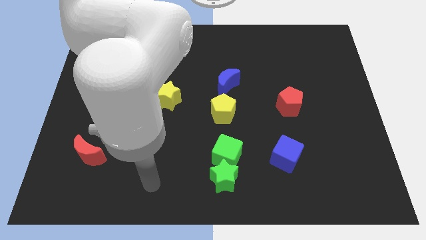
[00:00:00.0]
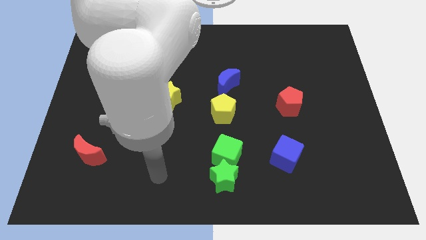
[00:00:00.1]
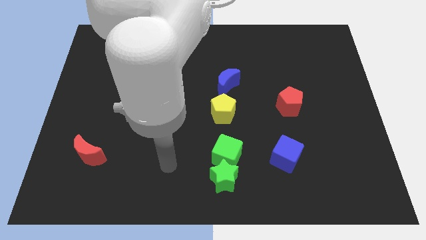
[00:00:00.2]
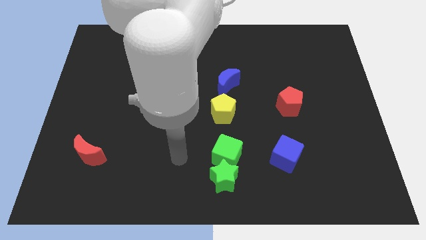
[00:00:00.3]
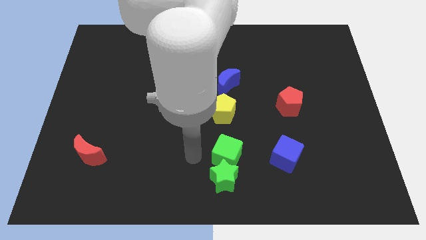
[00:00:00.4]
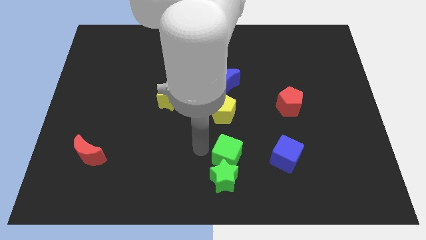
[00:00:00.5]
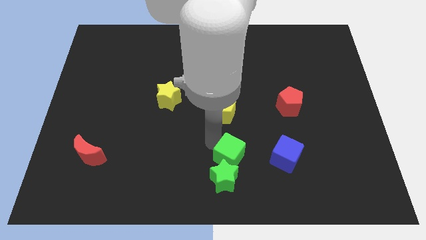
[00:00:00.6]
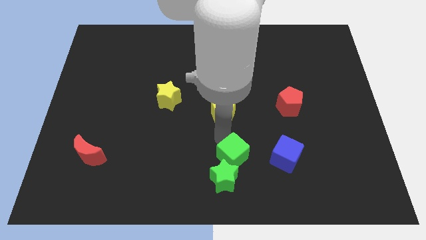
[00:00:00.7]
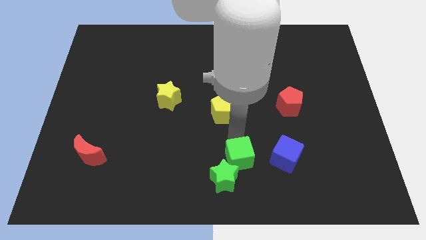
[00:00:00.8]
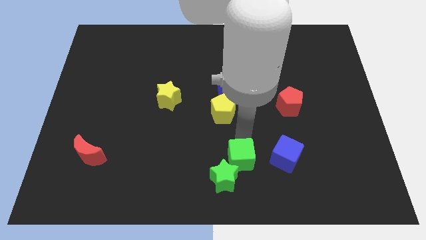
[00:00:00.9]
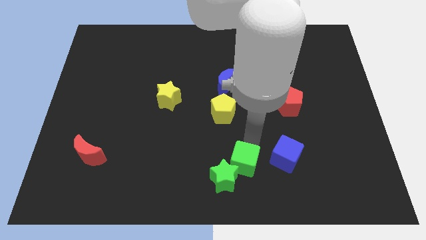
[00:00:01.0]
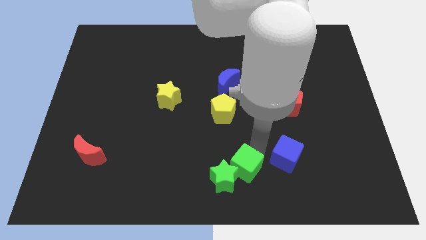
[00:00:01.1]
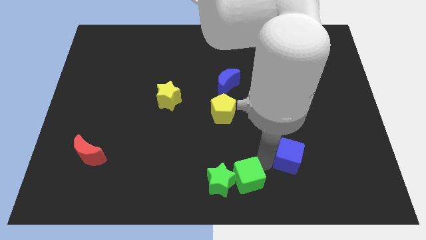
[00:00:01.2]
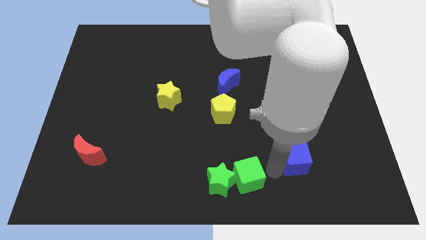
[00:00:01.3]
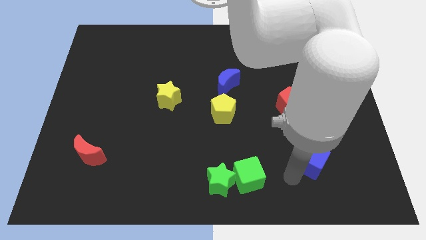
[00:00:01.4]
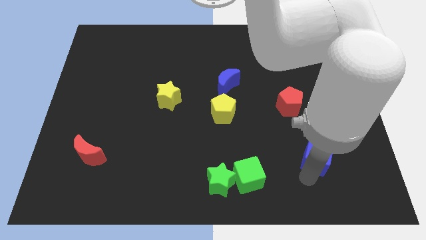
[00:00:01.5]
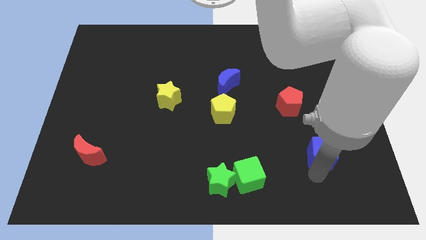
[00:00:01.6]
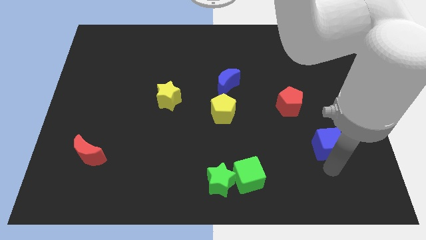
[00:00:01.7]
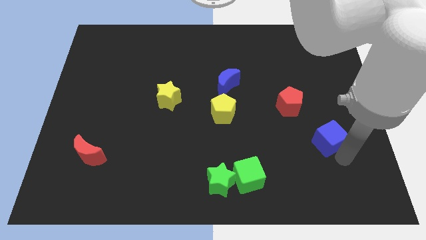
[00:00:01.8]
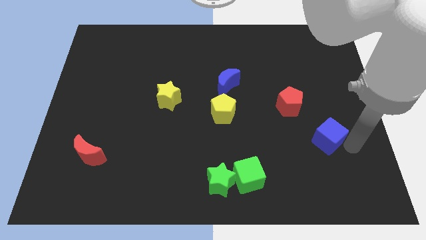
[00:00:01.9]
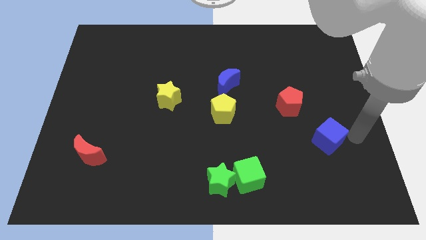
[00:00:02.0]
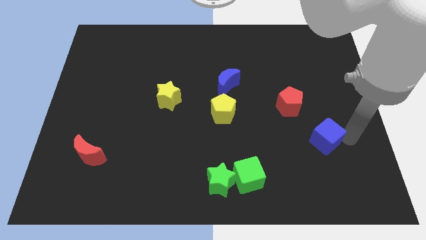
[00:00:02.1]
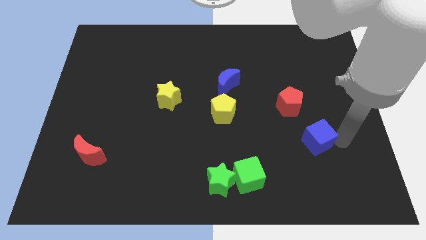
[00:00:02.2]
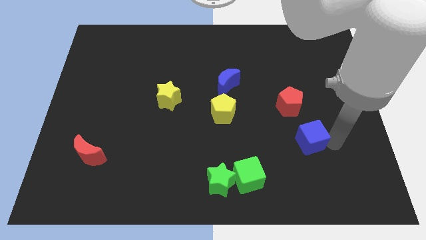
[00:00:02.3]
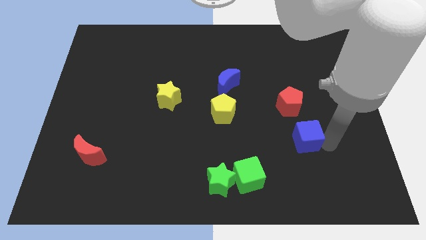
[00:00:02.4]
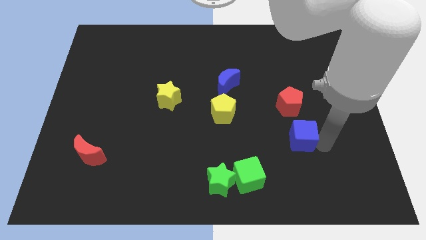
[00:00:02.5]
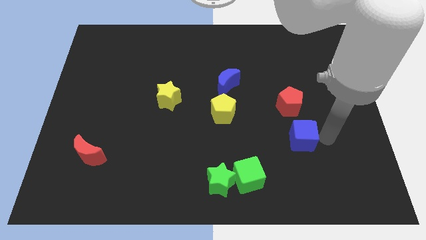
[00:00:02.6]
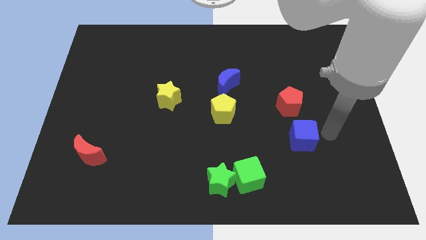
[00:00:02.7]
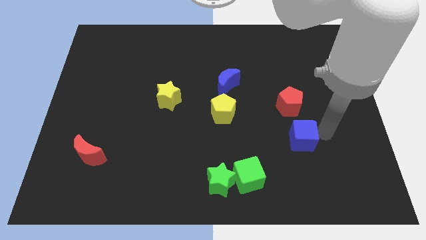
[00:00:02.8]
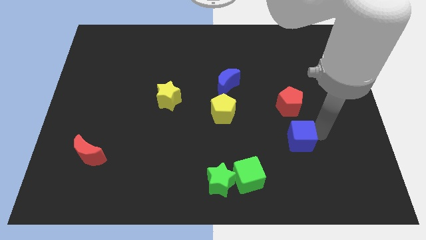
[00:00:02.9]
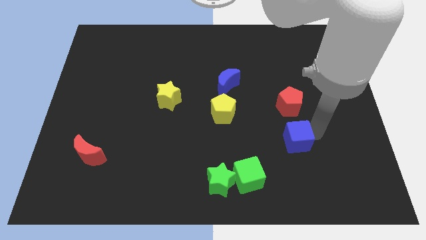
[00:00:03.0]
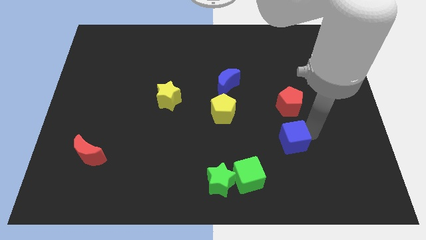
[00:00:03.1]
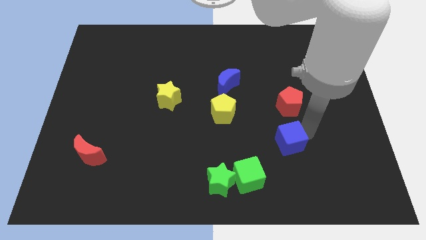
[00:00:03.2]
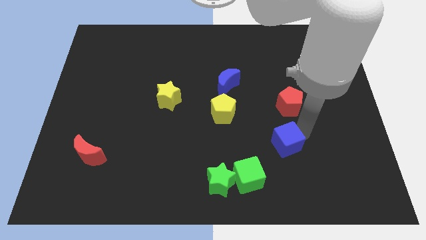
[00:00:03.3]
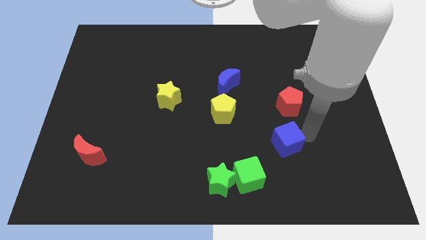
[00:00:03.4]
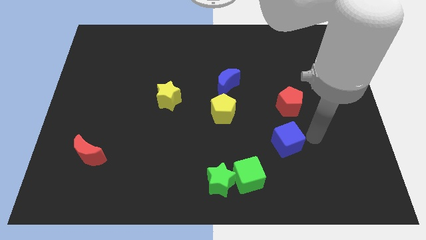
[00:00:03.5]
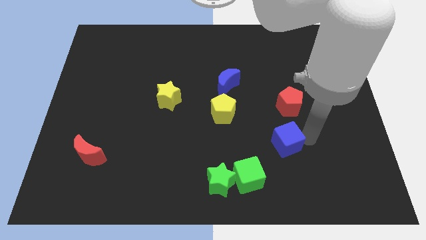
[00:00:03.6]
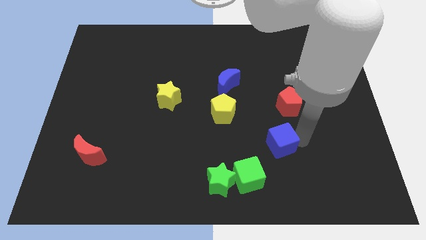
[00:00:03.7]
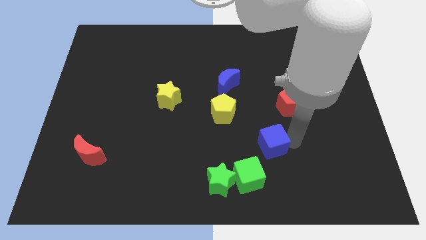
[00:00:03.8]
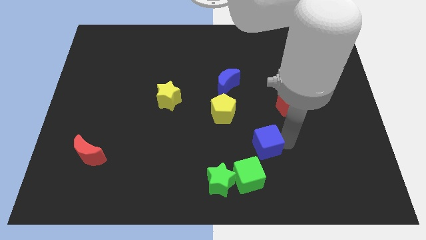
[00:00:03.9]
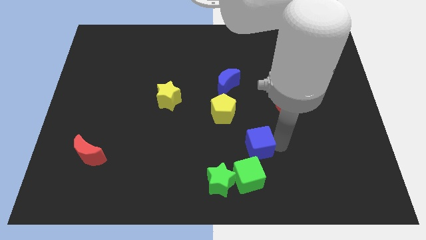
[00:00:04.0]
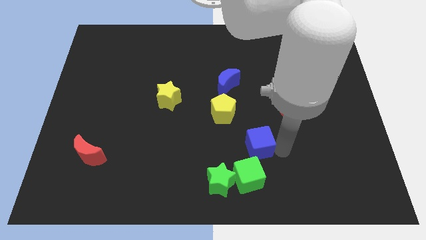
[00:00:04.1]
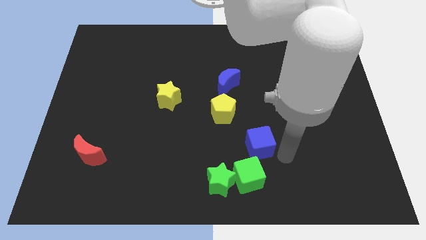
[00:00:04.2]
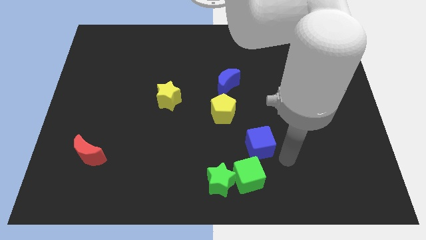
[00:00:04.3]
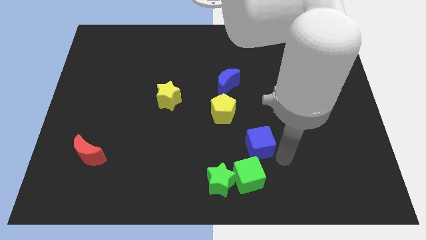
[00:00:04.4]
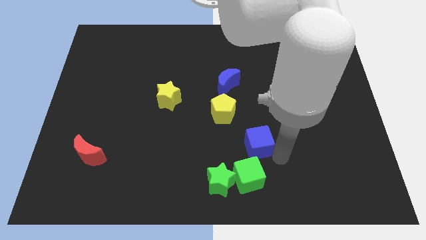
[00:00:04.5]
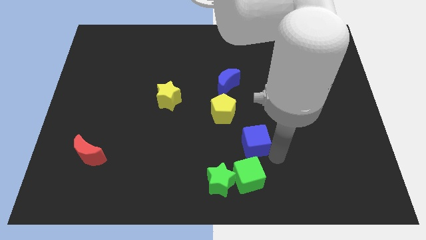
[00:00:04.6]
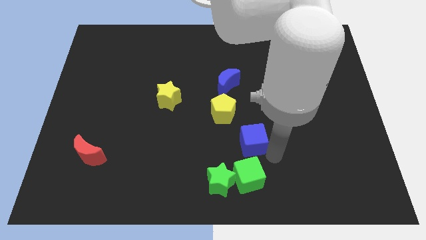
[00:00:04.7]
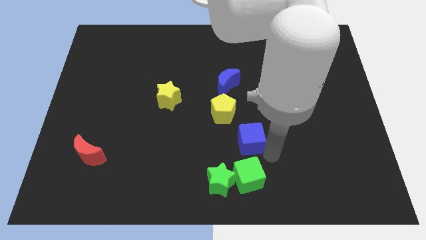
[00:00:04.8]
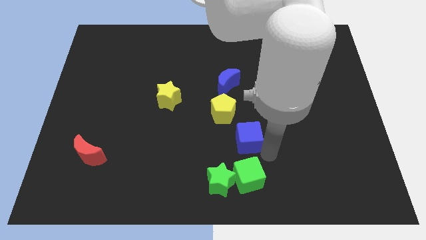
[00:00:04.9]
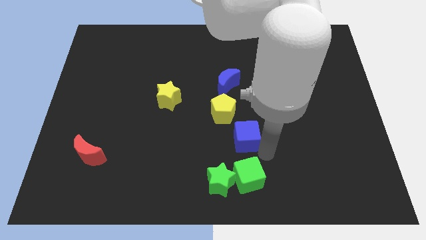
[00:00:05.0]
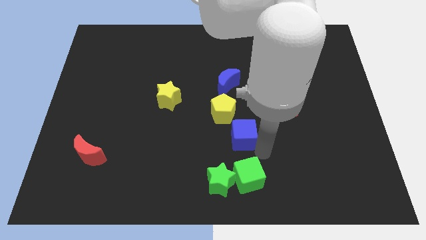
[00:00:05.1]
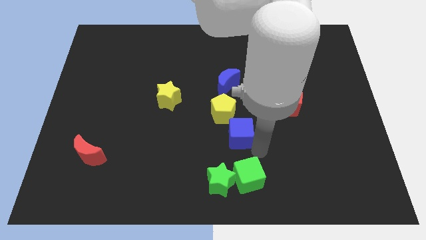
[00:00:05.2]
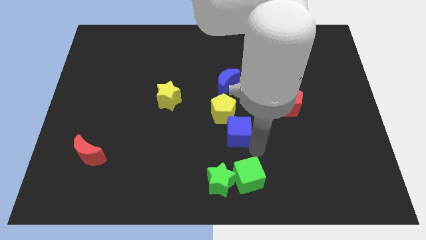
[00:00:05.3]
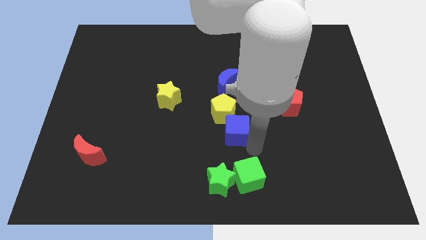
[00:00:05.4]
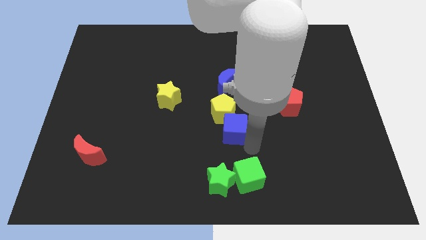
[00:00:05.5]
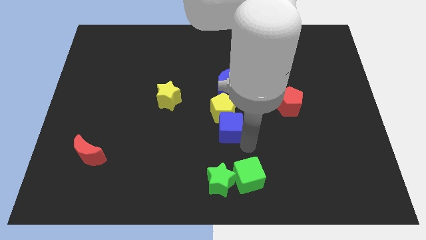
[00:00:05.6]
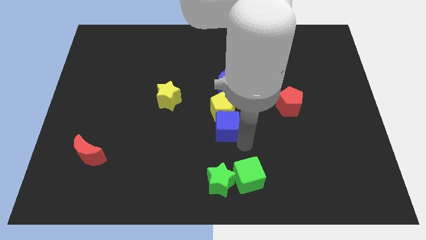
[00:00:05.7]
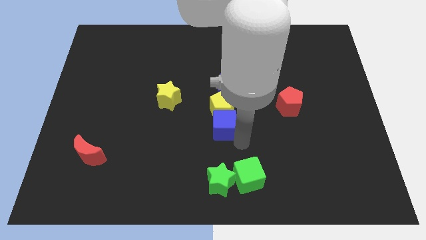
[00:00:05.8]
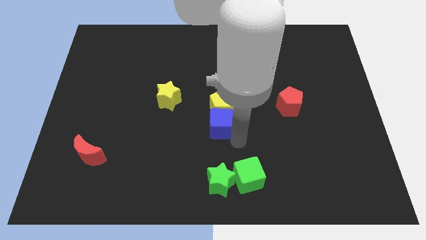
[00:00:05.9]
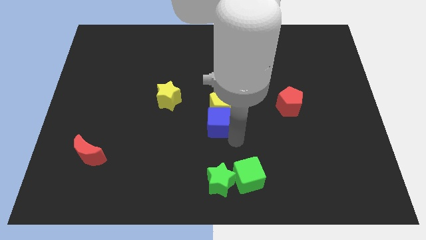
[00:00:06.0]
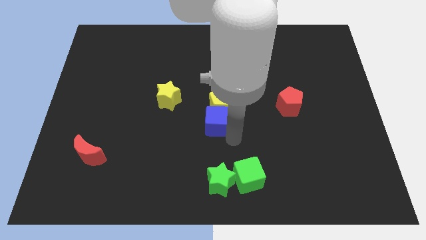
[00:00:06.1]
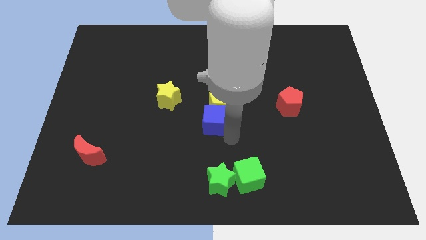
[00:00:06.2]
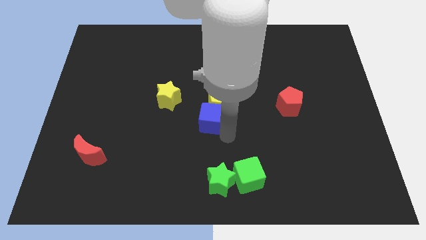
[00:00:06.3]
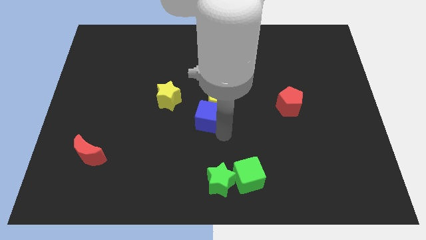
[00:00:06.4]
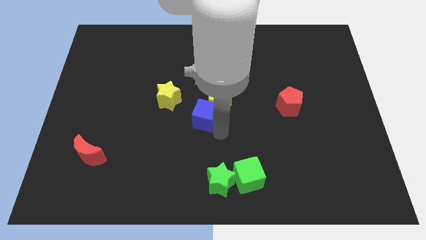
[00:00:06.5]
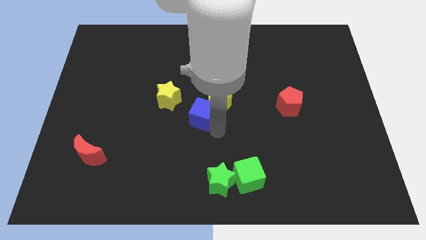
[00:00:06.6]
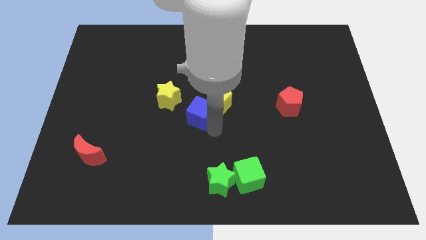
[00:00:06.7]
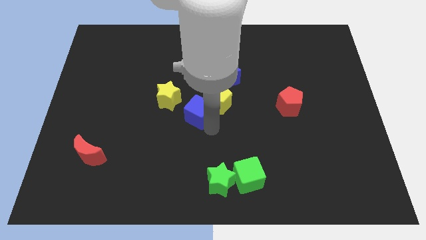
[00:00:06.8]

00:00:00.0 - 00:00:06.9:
push the blue cube diagonally upwards and left

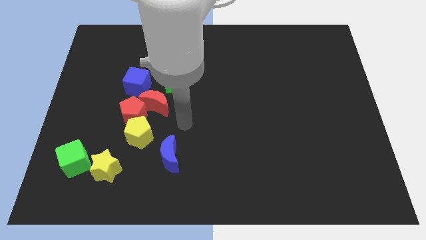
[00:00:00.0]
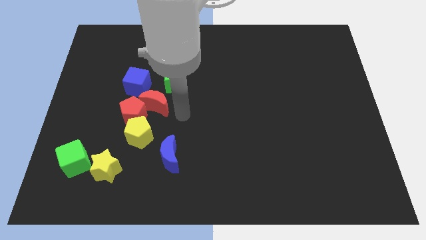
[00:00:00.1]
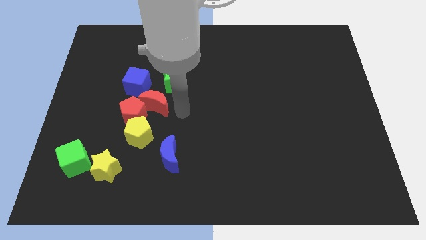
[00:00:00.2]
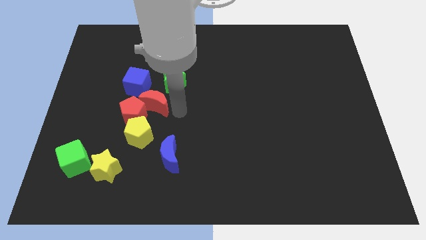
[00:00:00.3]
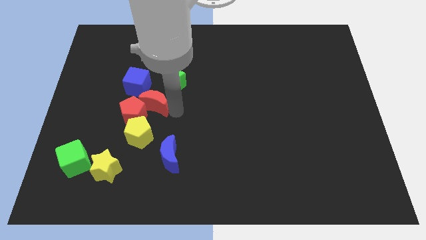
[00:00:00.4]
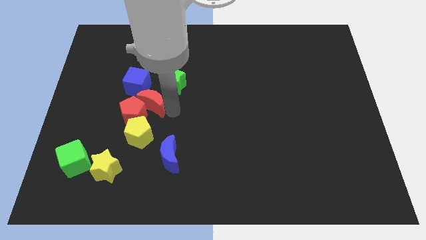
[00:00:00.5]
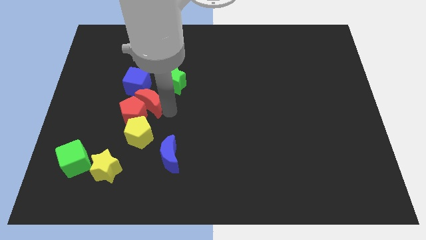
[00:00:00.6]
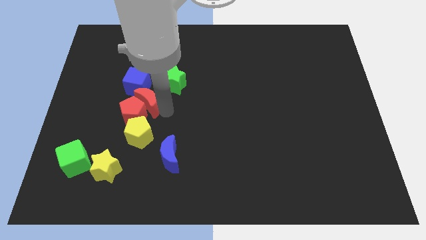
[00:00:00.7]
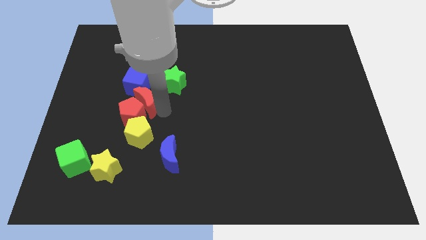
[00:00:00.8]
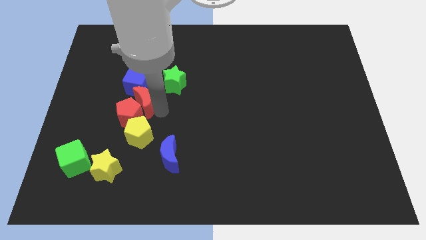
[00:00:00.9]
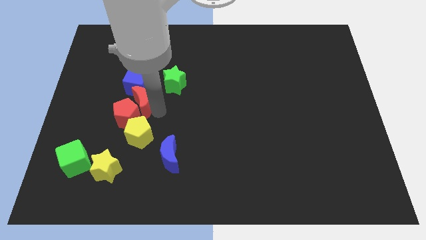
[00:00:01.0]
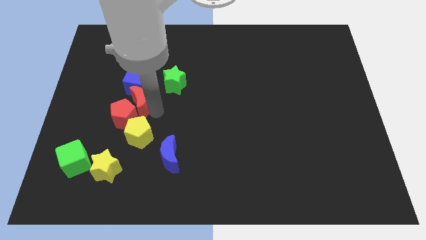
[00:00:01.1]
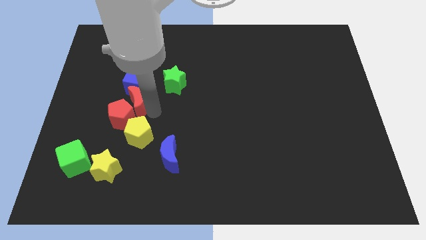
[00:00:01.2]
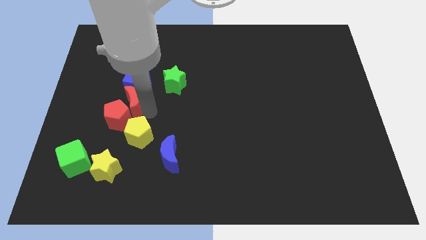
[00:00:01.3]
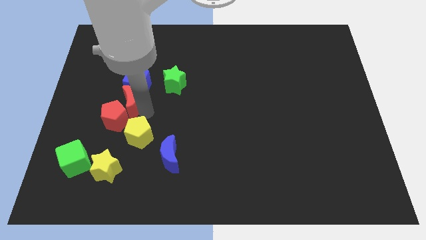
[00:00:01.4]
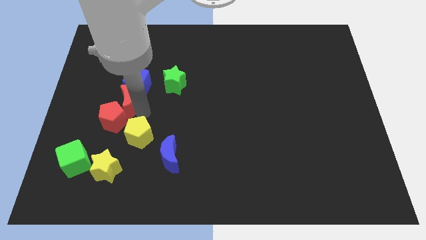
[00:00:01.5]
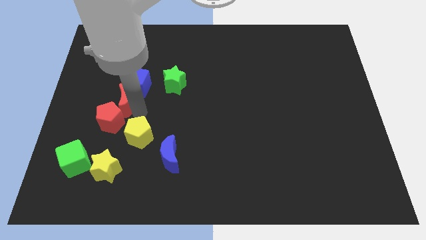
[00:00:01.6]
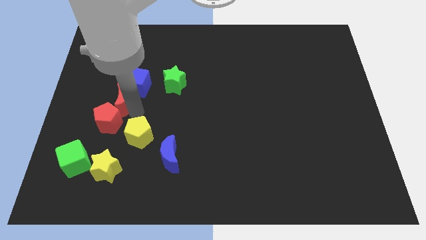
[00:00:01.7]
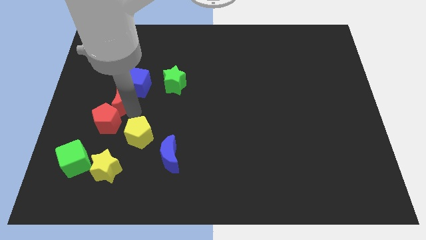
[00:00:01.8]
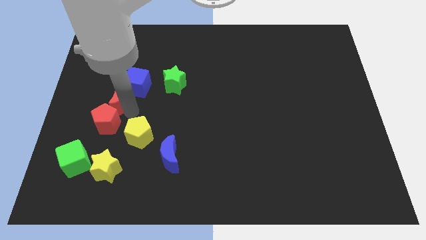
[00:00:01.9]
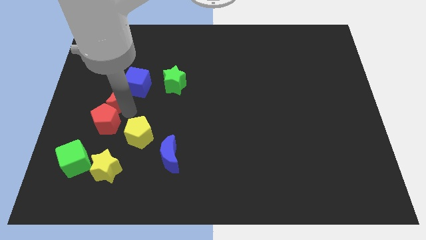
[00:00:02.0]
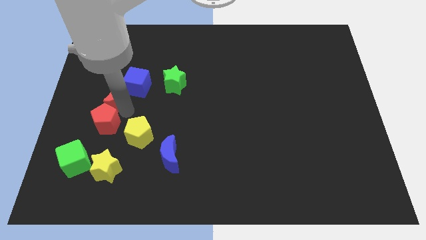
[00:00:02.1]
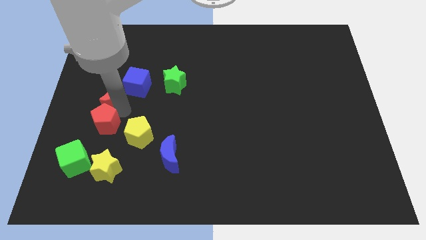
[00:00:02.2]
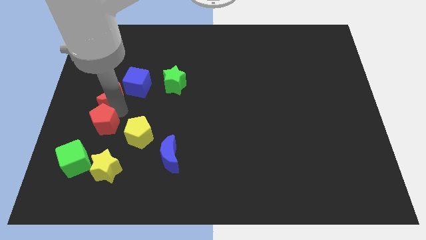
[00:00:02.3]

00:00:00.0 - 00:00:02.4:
slide the red moon somewhat upwards and to the left diagonally
